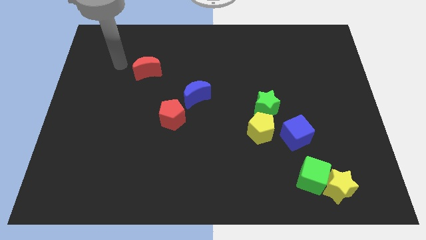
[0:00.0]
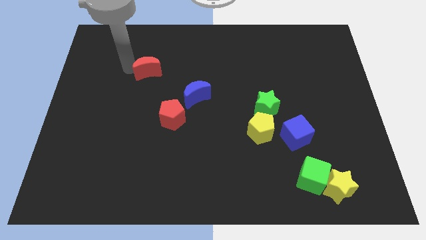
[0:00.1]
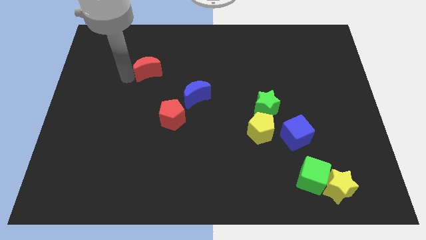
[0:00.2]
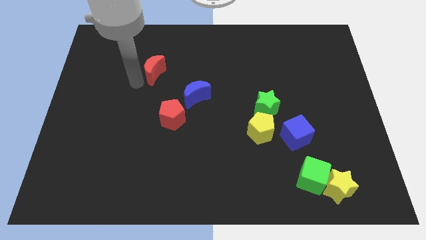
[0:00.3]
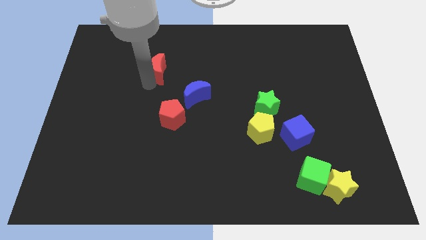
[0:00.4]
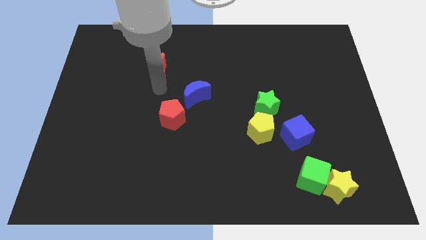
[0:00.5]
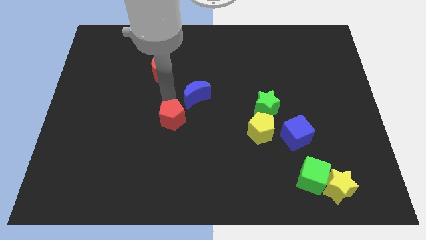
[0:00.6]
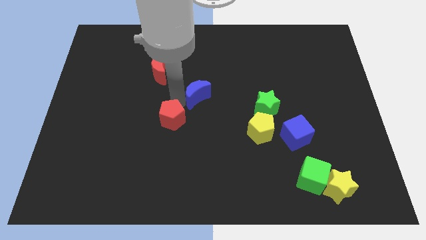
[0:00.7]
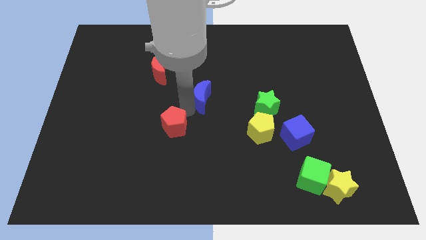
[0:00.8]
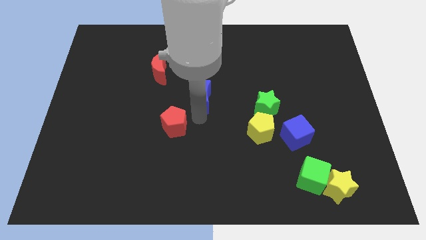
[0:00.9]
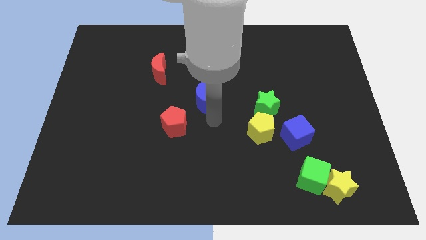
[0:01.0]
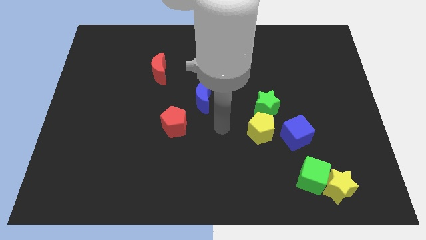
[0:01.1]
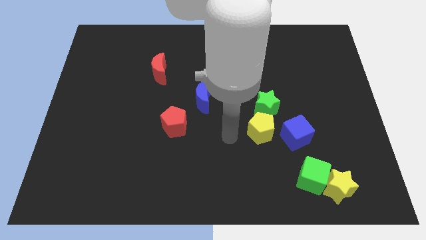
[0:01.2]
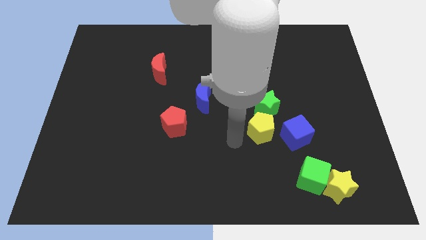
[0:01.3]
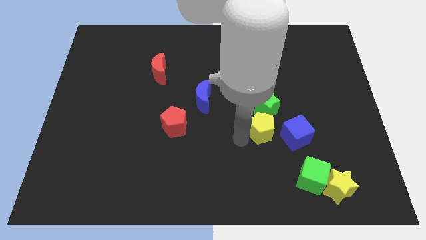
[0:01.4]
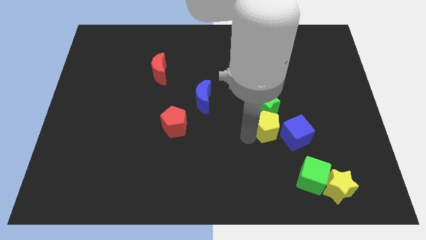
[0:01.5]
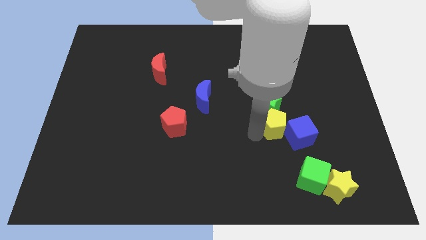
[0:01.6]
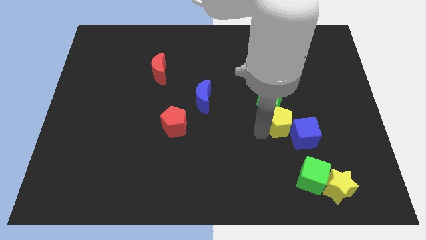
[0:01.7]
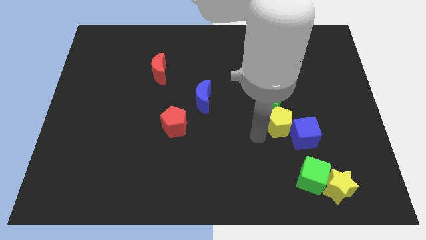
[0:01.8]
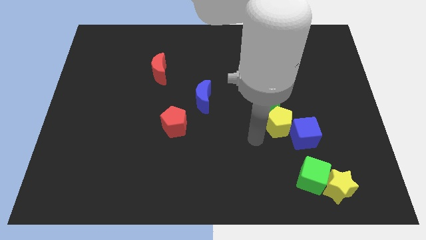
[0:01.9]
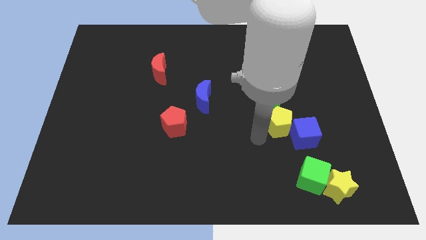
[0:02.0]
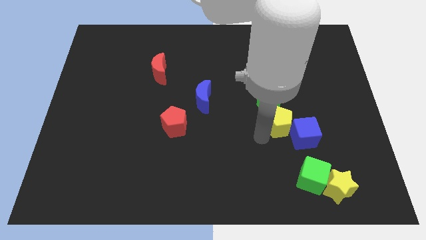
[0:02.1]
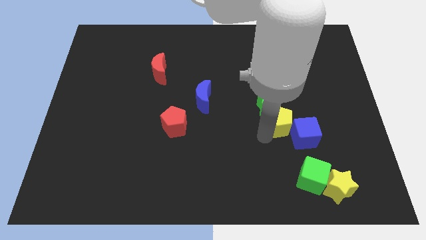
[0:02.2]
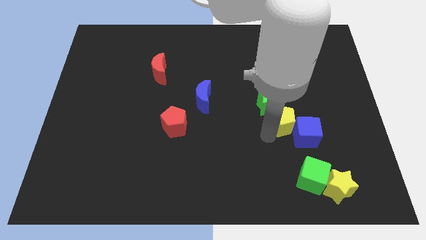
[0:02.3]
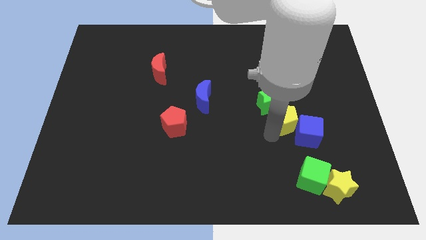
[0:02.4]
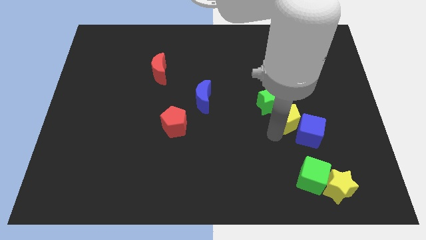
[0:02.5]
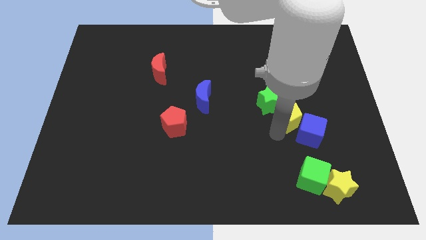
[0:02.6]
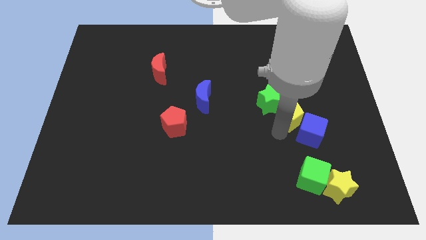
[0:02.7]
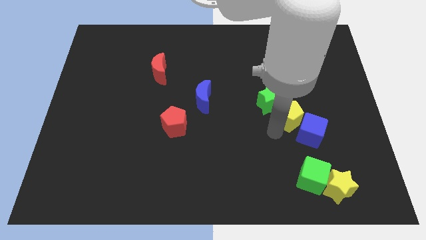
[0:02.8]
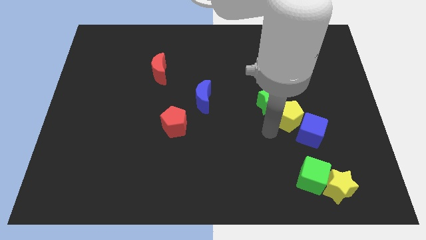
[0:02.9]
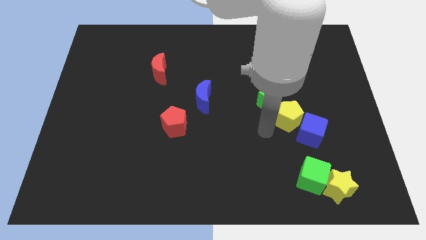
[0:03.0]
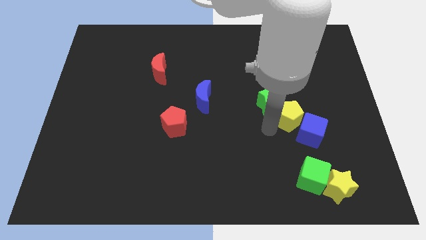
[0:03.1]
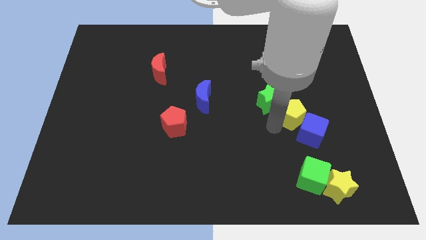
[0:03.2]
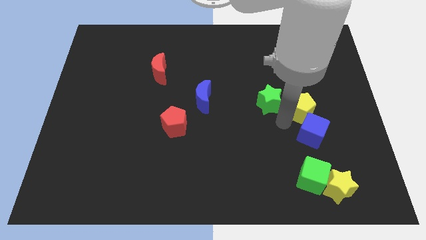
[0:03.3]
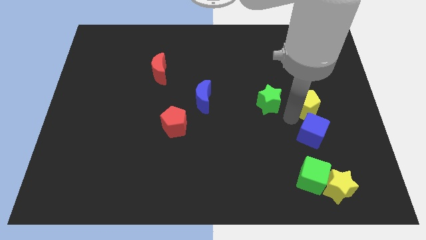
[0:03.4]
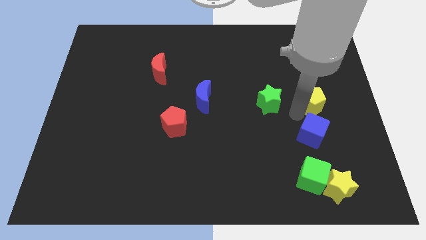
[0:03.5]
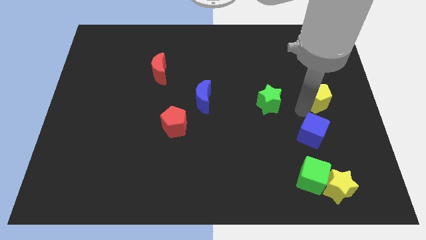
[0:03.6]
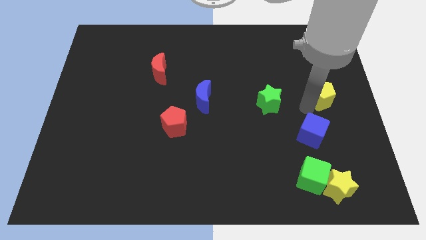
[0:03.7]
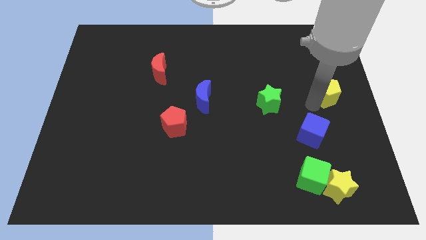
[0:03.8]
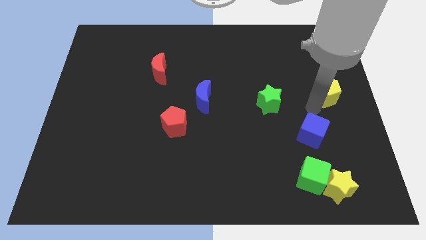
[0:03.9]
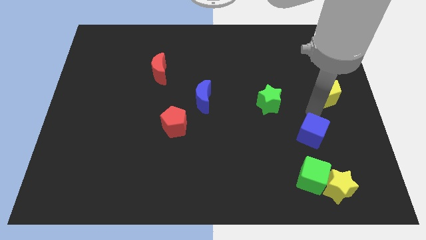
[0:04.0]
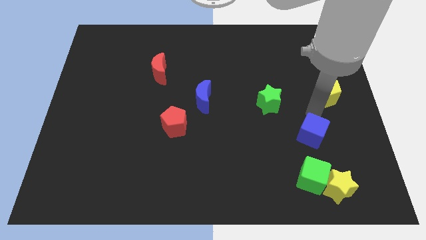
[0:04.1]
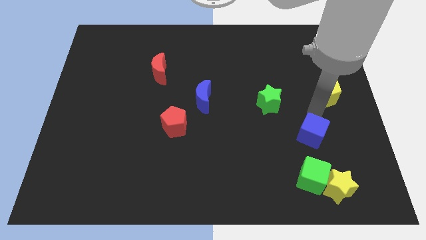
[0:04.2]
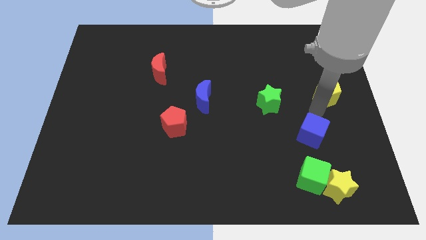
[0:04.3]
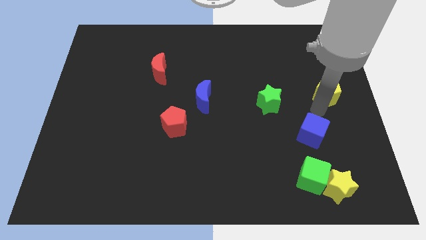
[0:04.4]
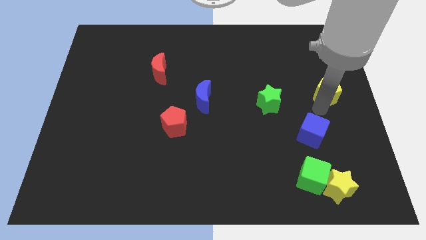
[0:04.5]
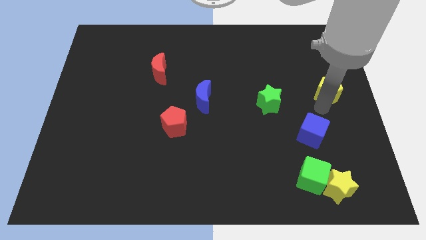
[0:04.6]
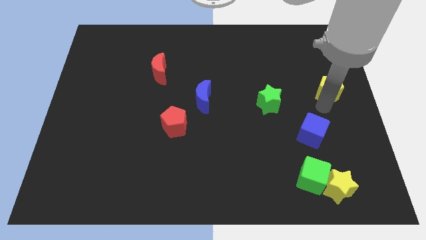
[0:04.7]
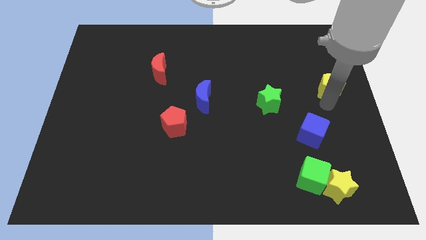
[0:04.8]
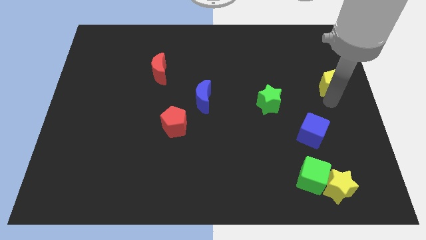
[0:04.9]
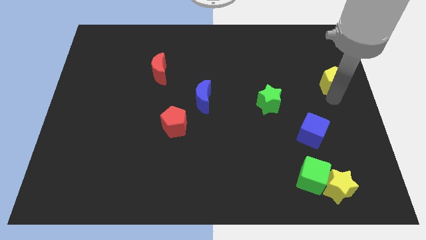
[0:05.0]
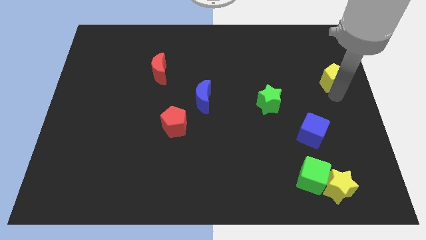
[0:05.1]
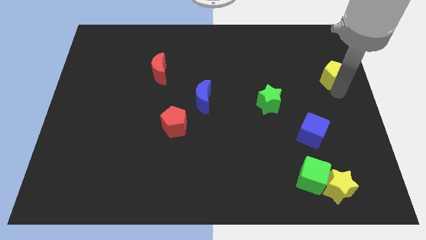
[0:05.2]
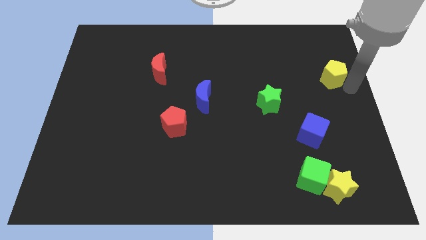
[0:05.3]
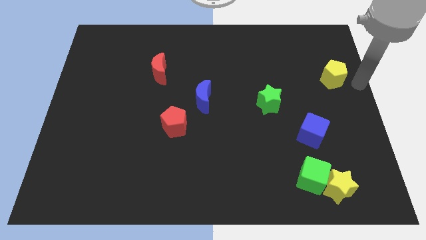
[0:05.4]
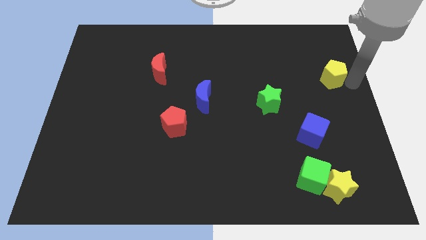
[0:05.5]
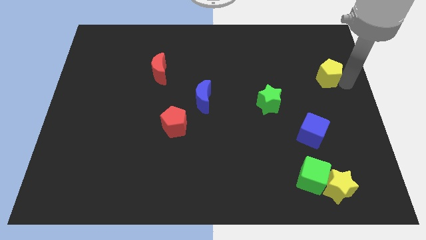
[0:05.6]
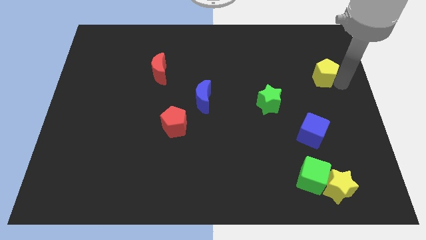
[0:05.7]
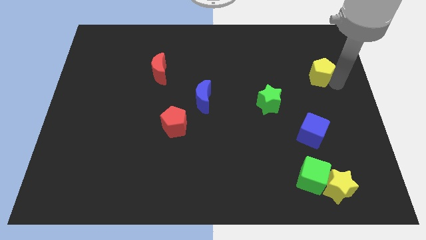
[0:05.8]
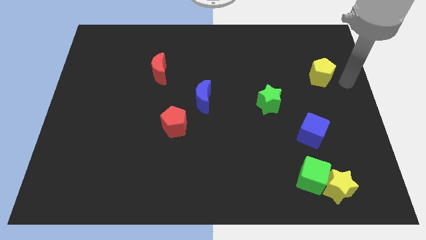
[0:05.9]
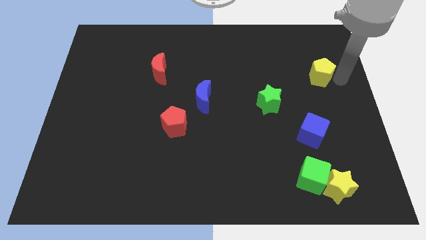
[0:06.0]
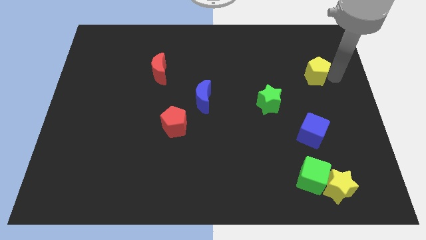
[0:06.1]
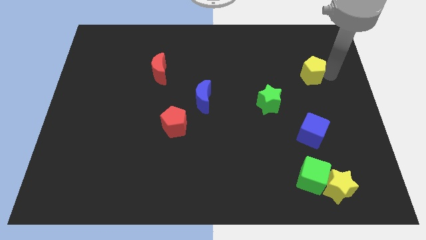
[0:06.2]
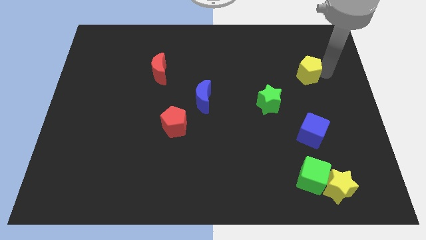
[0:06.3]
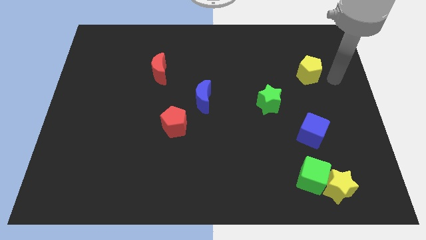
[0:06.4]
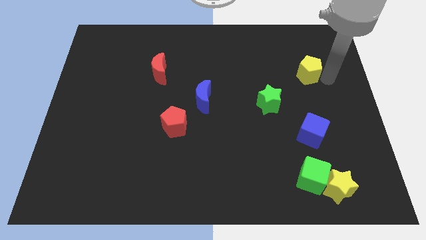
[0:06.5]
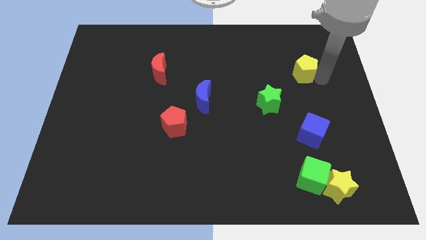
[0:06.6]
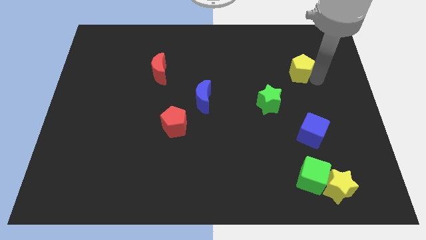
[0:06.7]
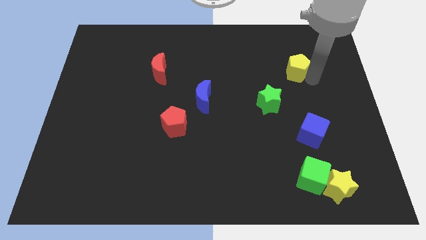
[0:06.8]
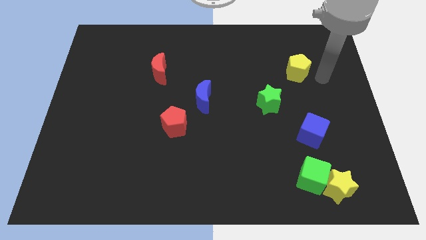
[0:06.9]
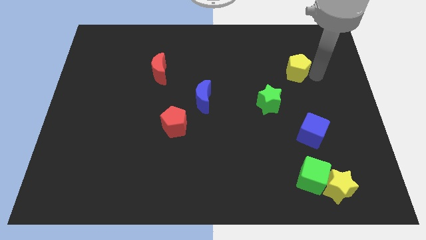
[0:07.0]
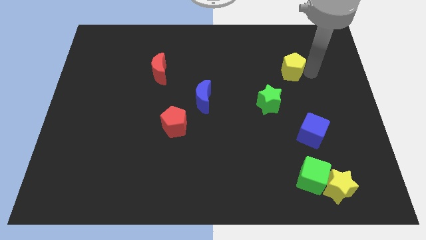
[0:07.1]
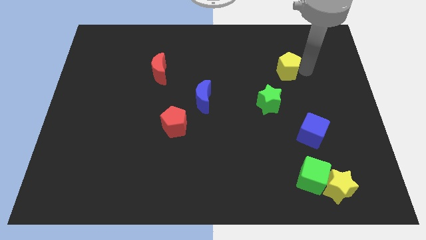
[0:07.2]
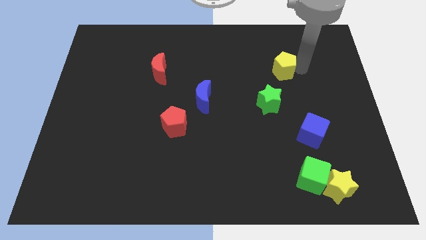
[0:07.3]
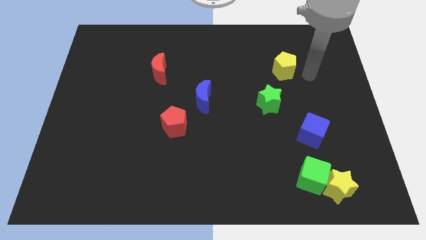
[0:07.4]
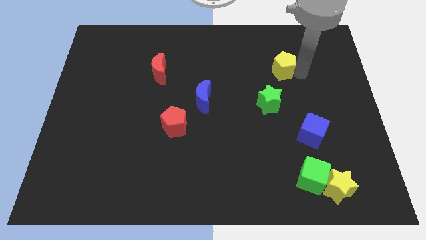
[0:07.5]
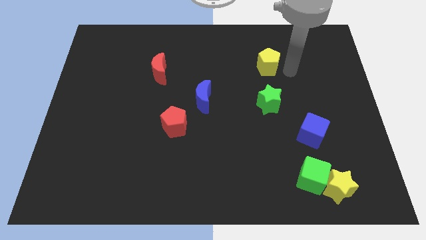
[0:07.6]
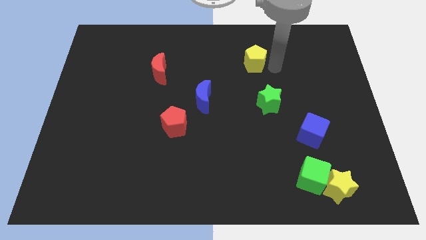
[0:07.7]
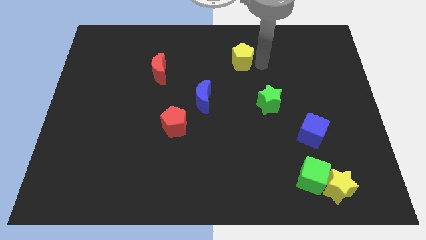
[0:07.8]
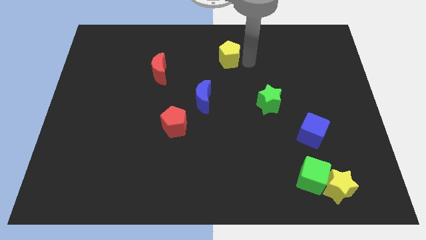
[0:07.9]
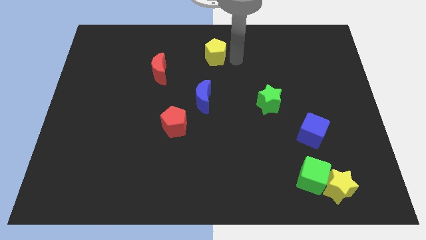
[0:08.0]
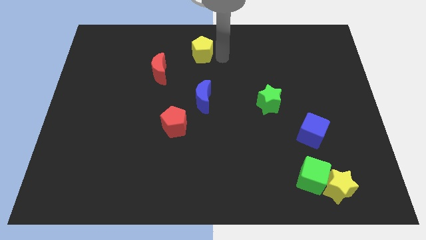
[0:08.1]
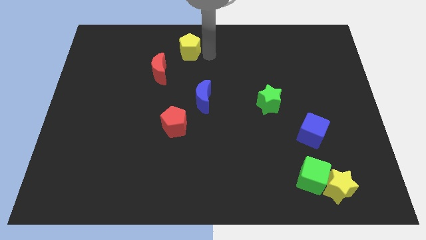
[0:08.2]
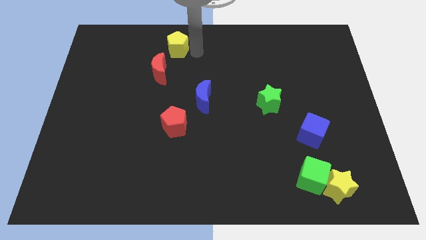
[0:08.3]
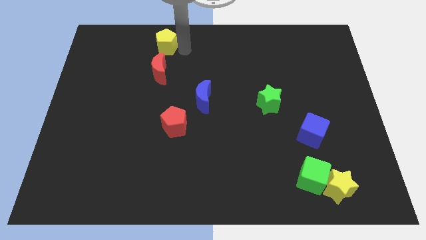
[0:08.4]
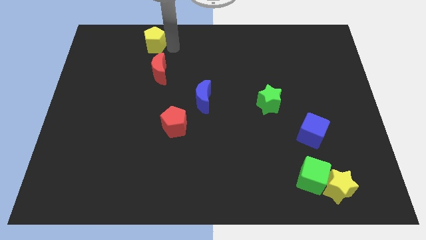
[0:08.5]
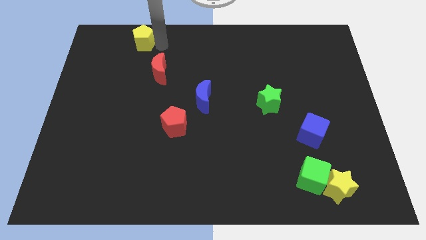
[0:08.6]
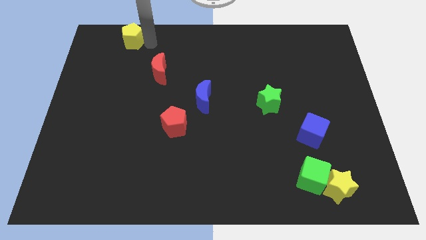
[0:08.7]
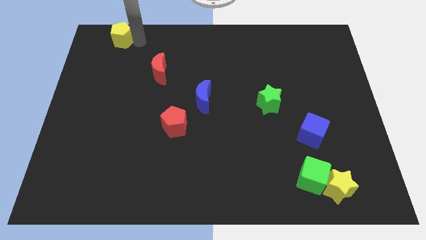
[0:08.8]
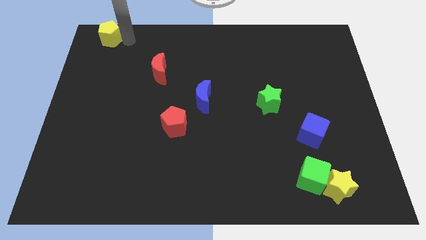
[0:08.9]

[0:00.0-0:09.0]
slide the yellow pentagon to the top left of the board
